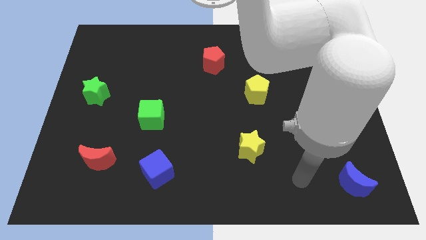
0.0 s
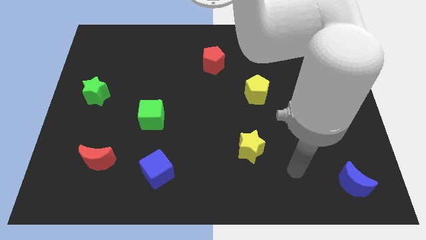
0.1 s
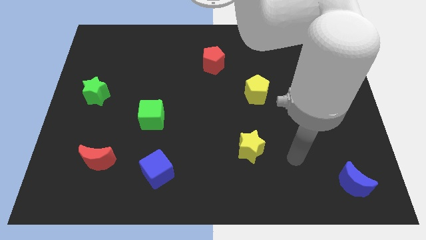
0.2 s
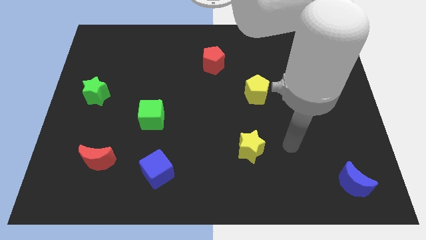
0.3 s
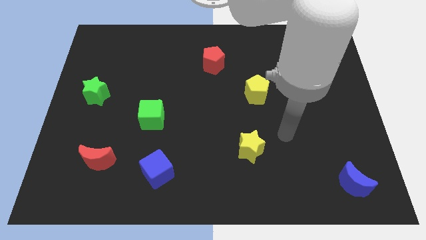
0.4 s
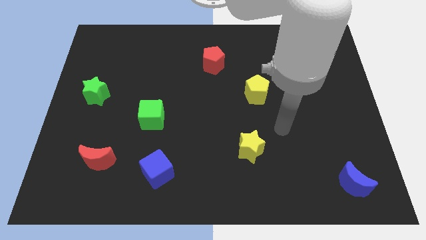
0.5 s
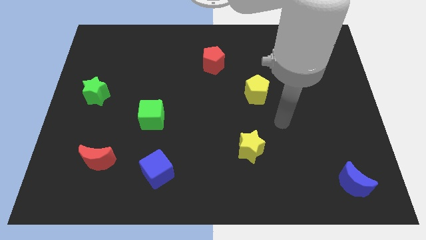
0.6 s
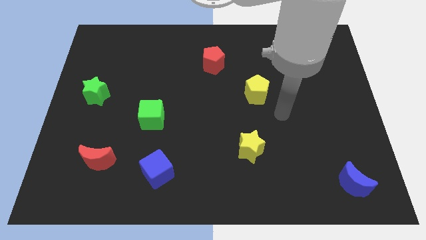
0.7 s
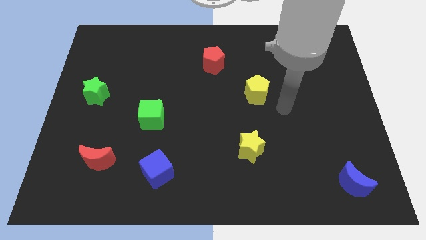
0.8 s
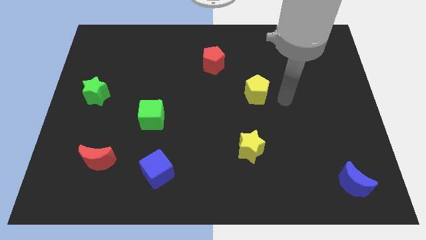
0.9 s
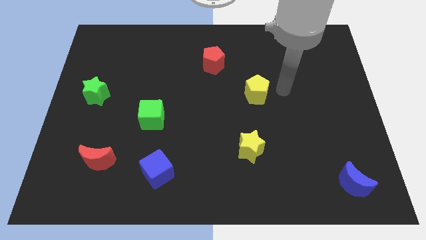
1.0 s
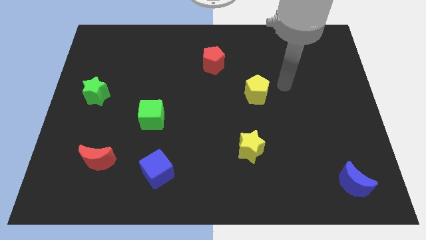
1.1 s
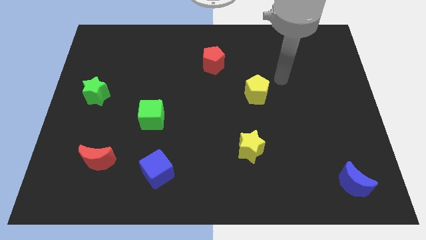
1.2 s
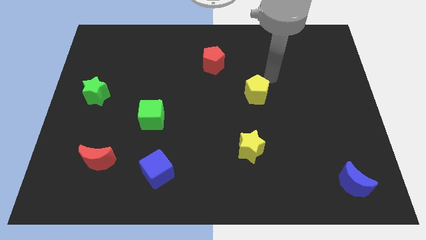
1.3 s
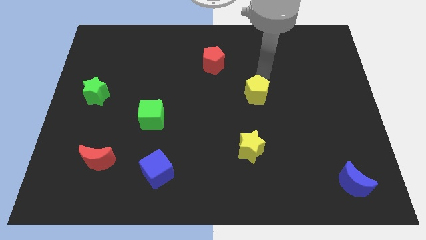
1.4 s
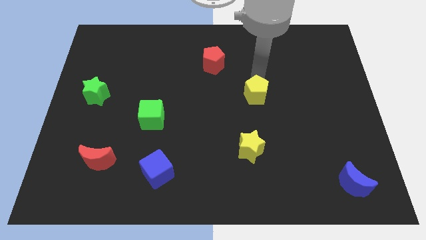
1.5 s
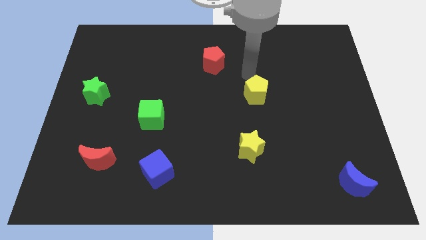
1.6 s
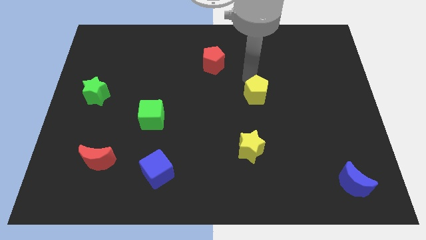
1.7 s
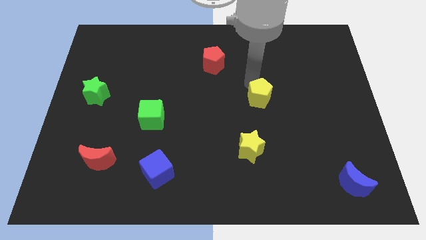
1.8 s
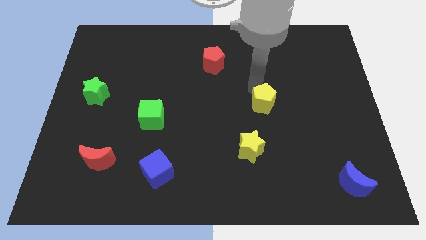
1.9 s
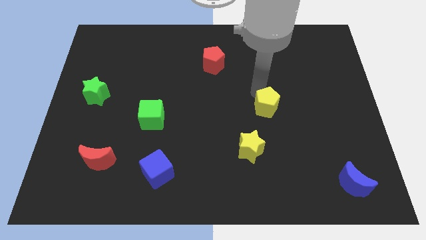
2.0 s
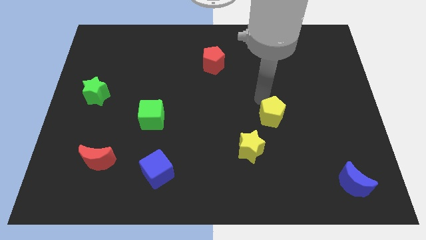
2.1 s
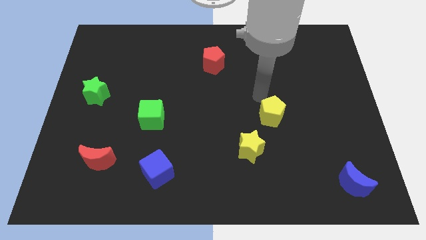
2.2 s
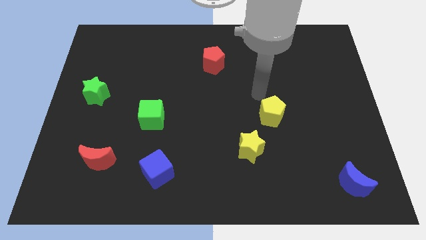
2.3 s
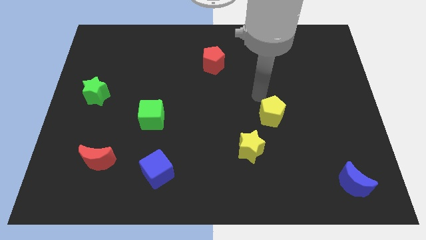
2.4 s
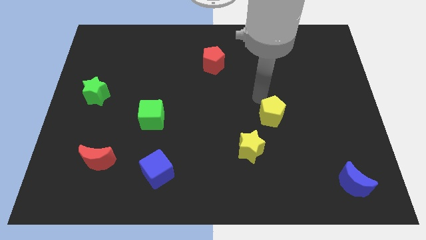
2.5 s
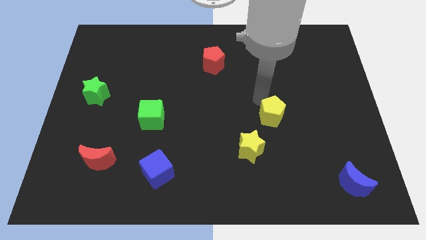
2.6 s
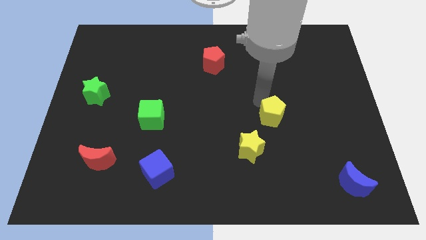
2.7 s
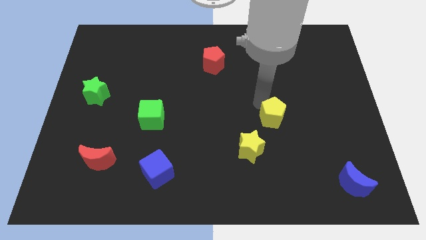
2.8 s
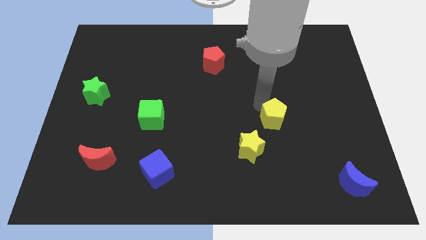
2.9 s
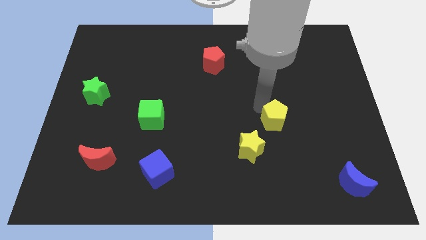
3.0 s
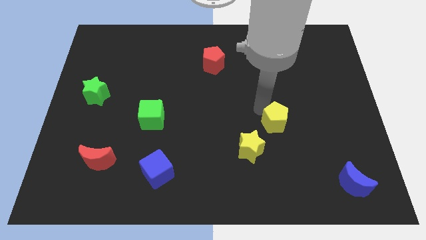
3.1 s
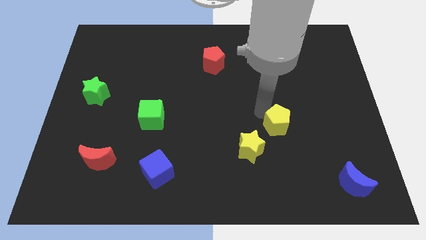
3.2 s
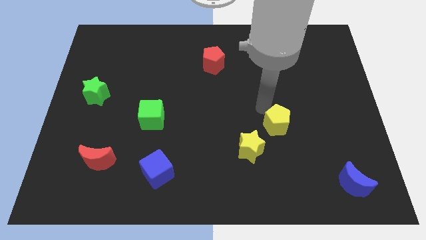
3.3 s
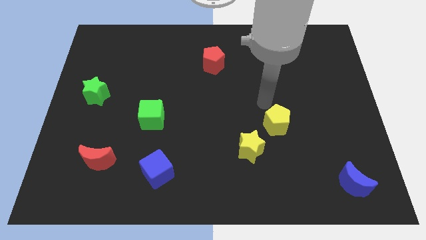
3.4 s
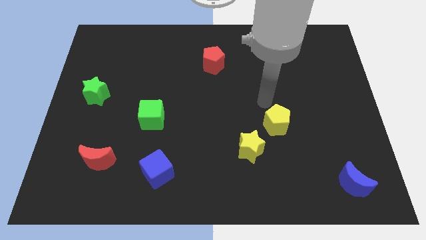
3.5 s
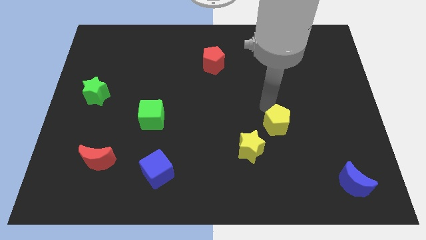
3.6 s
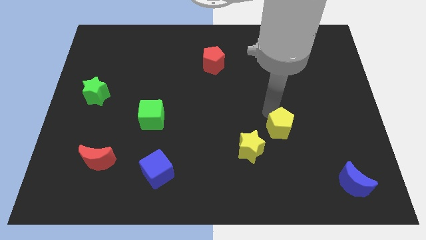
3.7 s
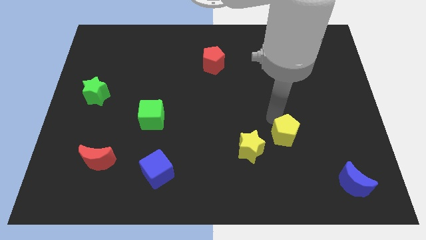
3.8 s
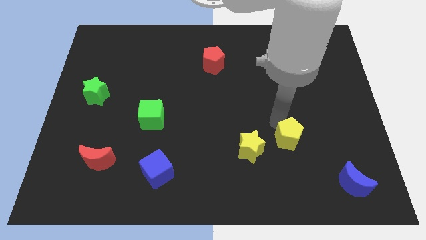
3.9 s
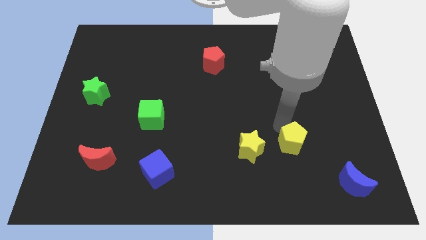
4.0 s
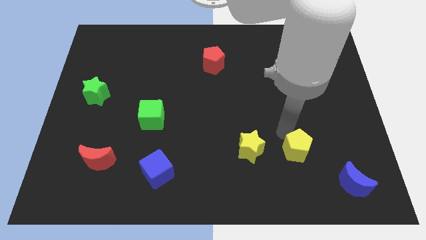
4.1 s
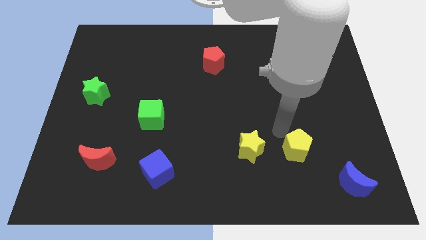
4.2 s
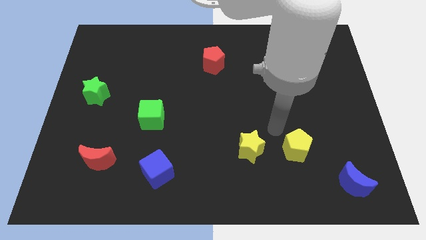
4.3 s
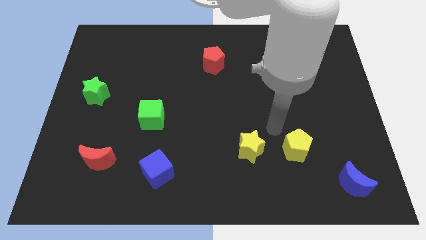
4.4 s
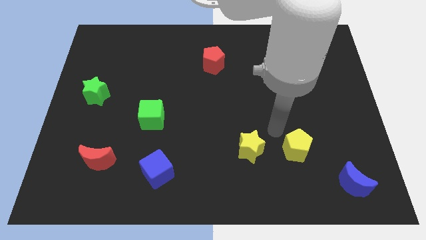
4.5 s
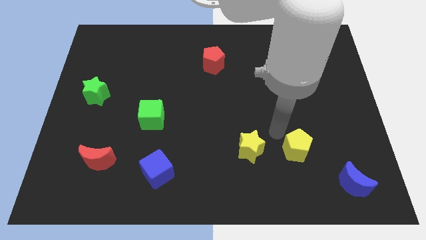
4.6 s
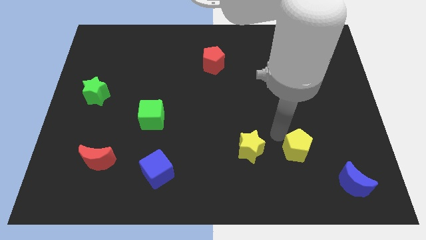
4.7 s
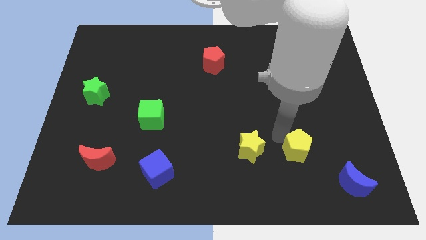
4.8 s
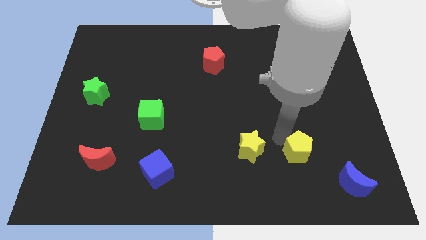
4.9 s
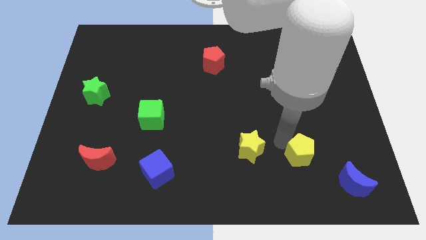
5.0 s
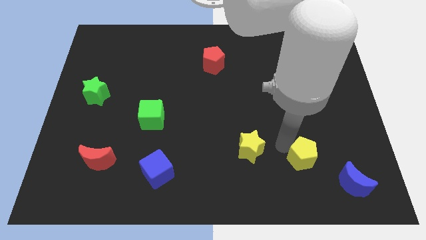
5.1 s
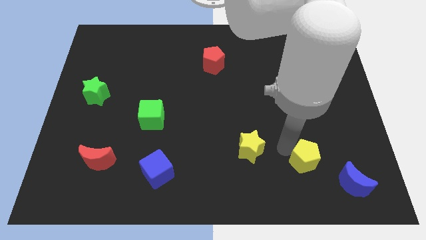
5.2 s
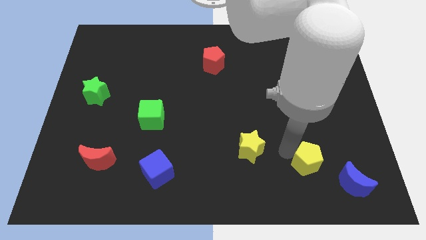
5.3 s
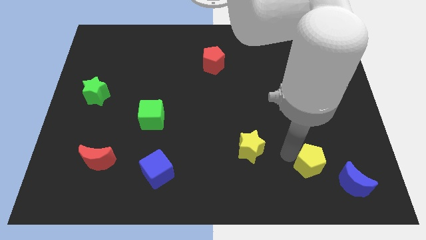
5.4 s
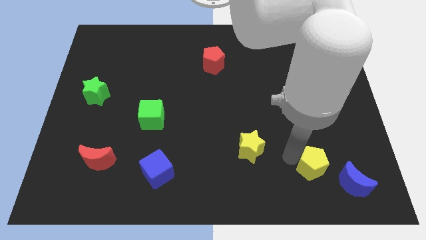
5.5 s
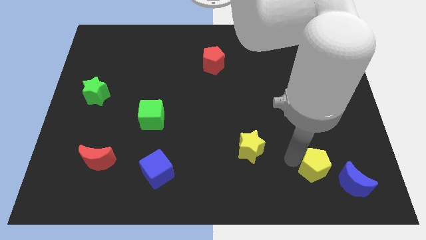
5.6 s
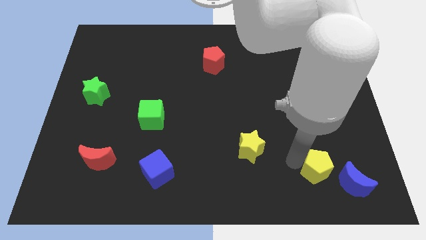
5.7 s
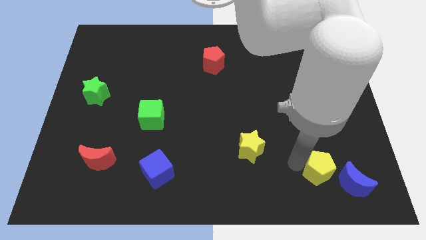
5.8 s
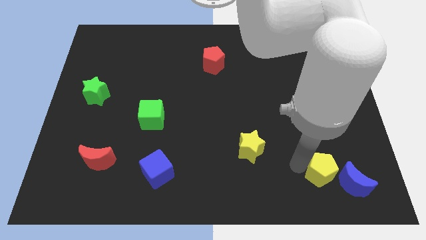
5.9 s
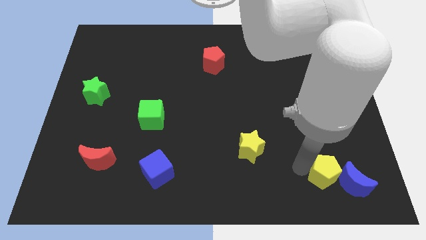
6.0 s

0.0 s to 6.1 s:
slide the yellow pentagon close to the blue moon

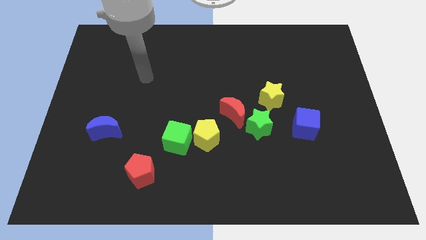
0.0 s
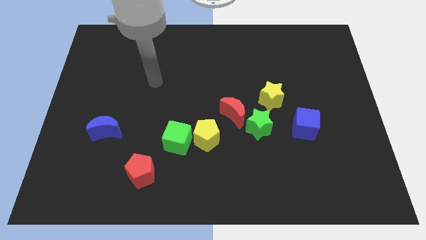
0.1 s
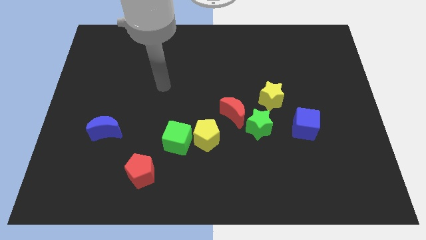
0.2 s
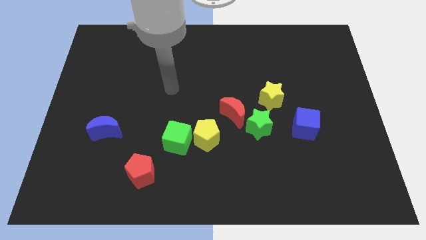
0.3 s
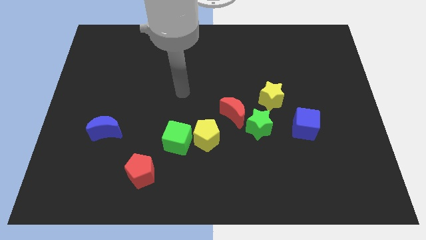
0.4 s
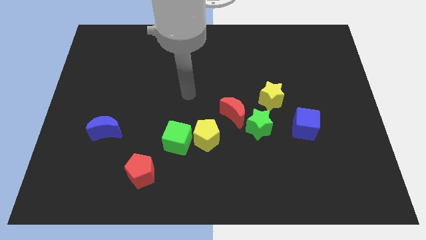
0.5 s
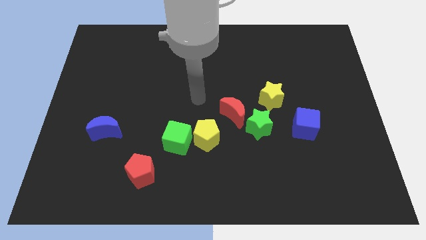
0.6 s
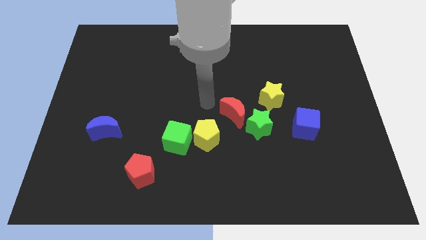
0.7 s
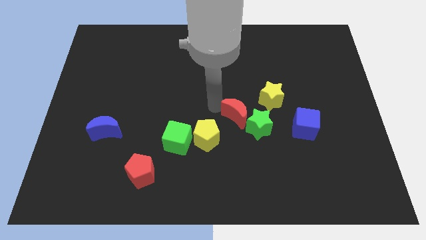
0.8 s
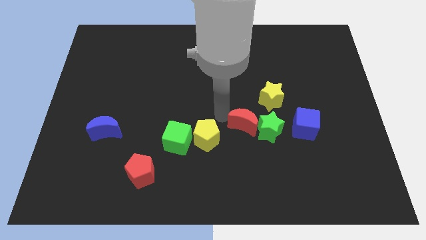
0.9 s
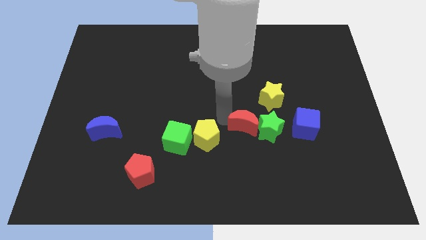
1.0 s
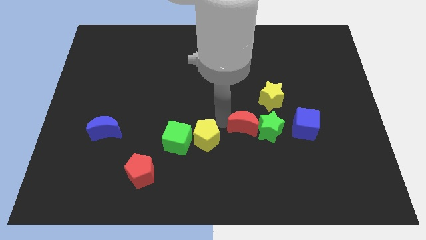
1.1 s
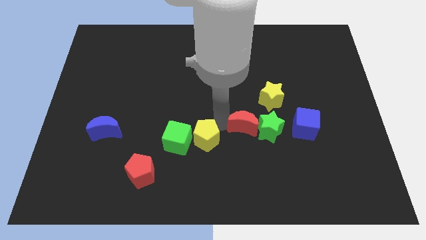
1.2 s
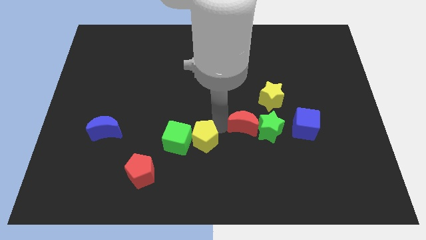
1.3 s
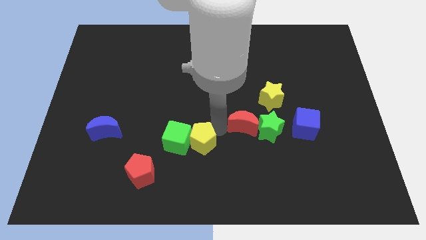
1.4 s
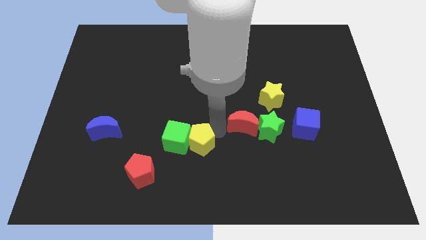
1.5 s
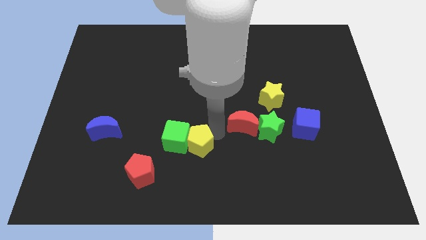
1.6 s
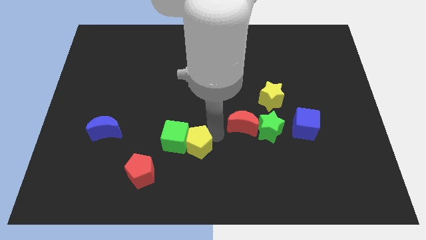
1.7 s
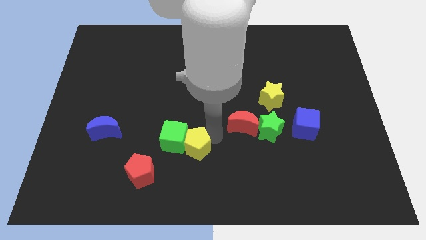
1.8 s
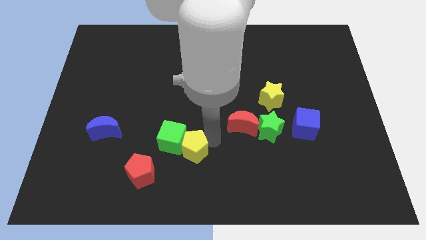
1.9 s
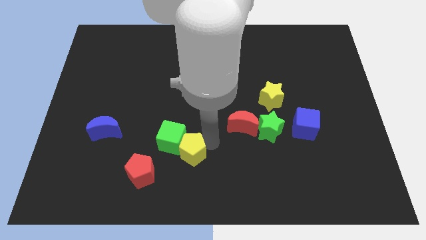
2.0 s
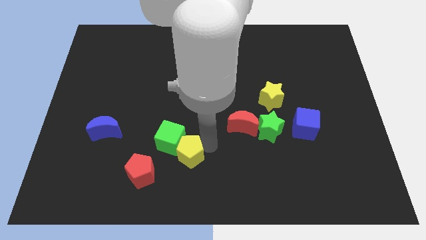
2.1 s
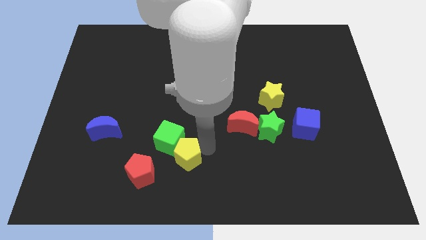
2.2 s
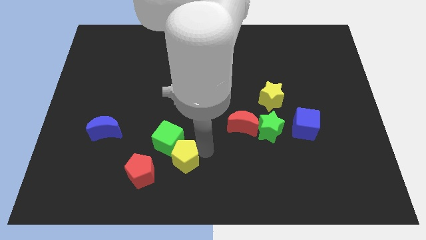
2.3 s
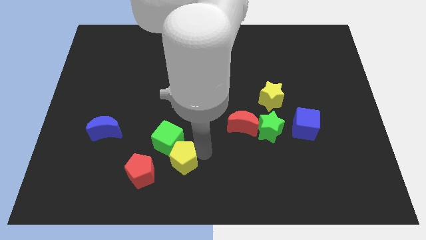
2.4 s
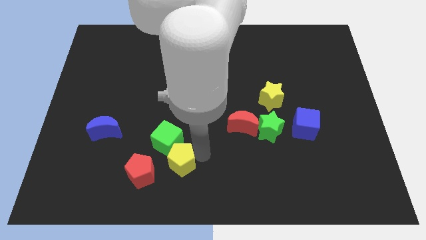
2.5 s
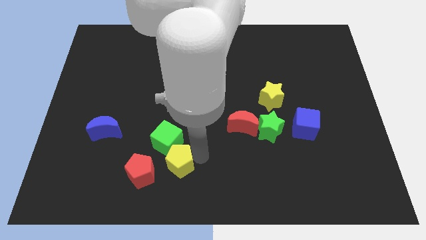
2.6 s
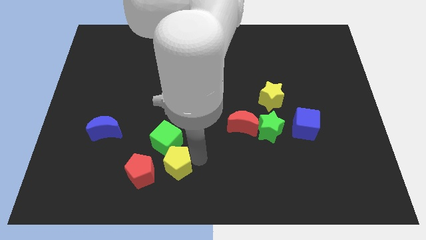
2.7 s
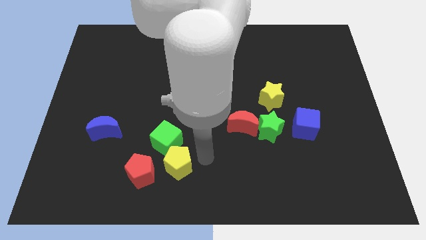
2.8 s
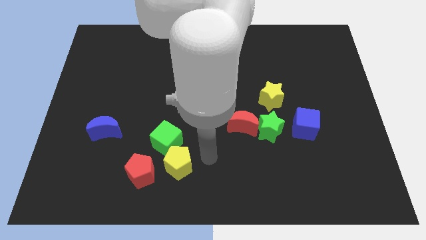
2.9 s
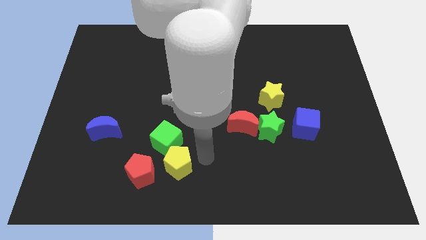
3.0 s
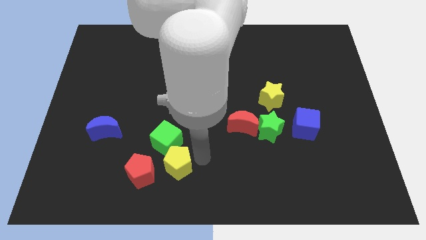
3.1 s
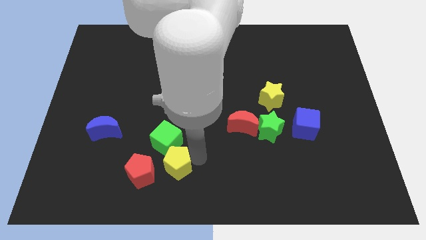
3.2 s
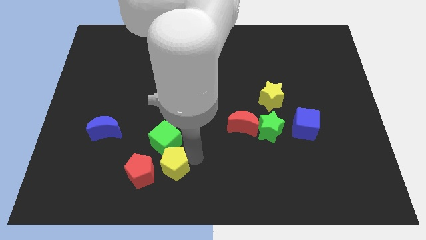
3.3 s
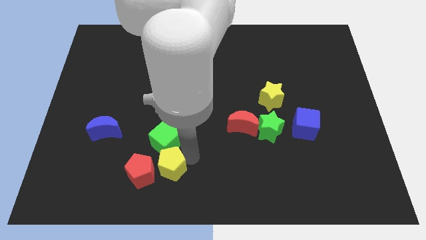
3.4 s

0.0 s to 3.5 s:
move the yellow pentagon towards the red pentagon
